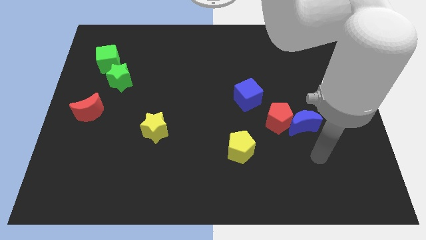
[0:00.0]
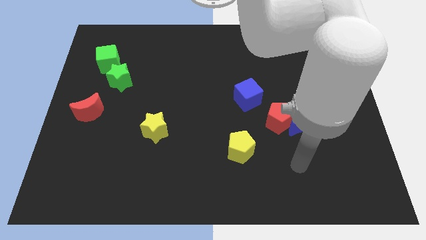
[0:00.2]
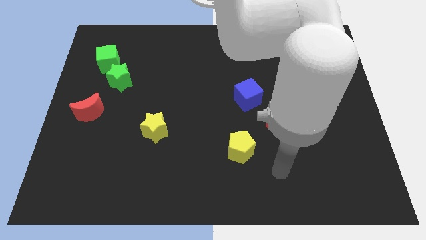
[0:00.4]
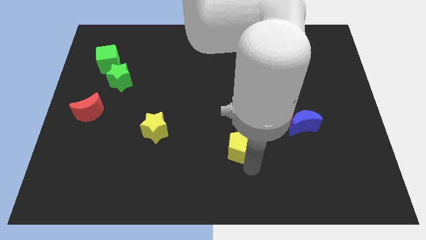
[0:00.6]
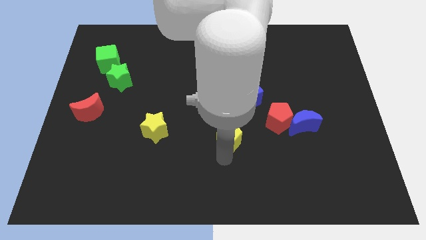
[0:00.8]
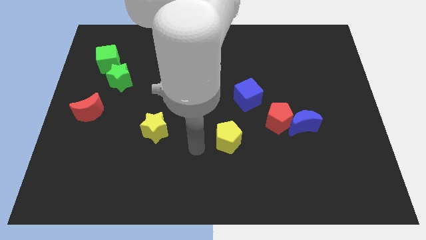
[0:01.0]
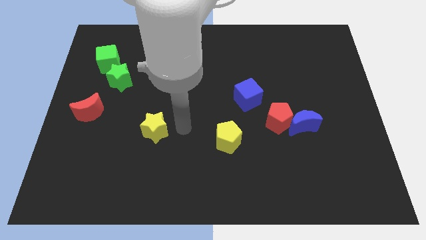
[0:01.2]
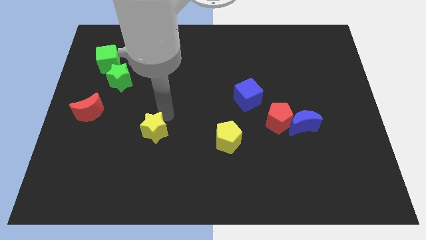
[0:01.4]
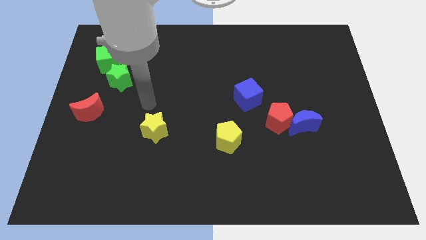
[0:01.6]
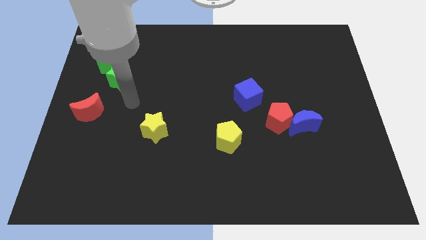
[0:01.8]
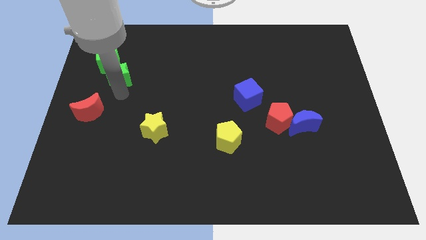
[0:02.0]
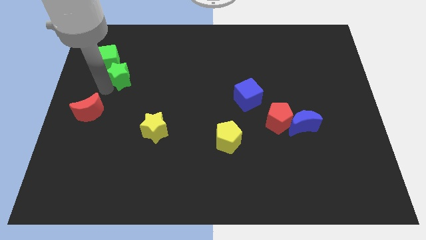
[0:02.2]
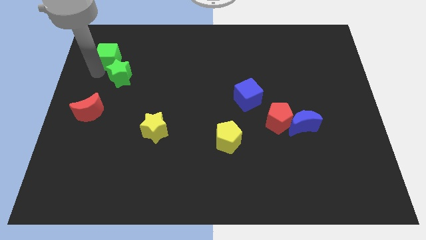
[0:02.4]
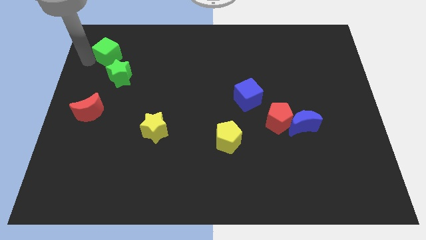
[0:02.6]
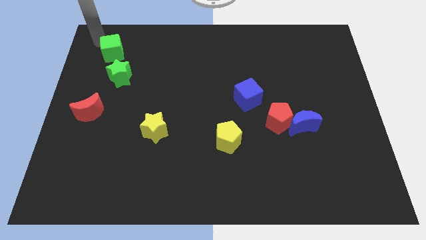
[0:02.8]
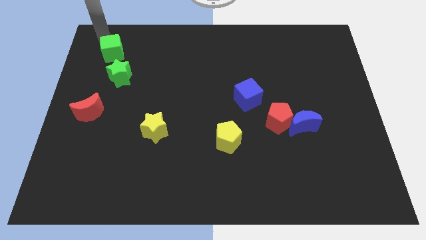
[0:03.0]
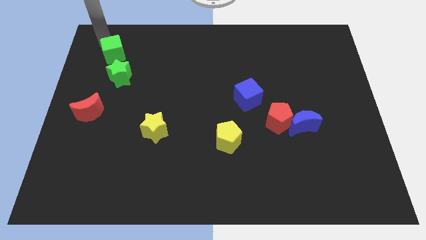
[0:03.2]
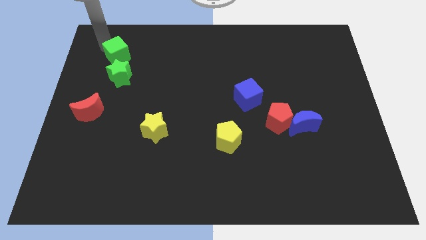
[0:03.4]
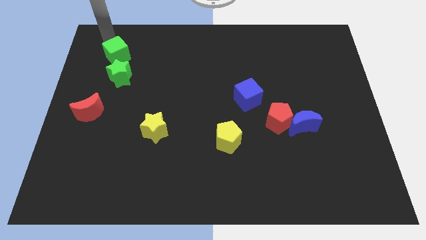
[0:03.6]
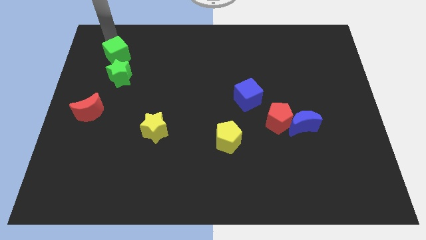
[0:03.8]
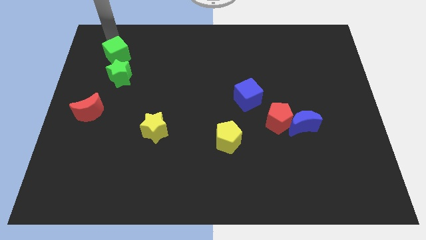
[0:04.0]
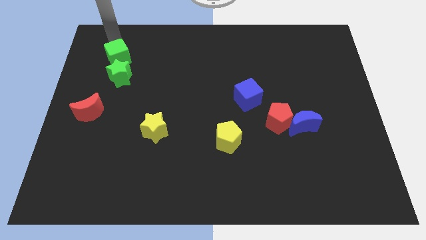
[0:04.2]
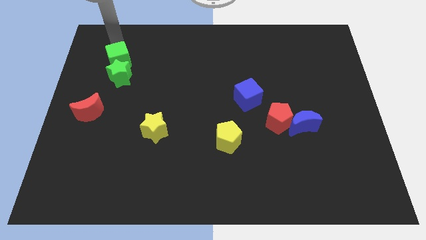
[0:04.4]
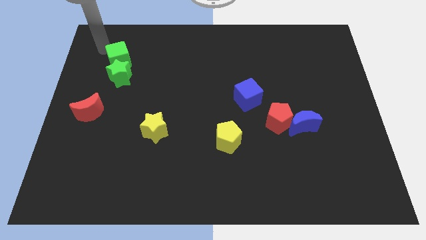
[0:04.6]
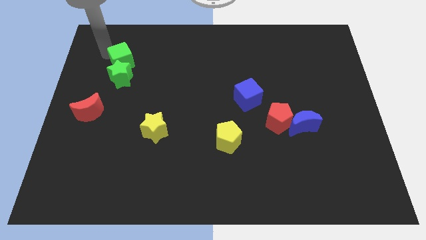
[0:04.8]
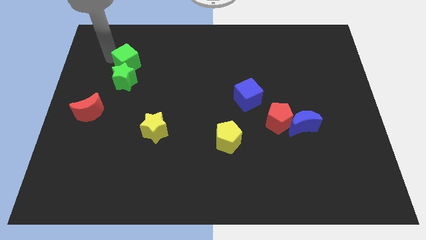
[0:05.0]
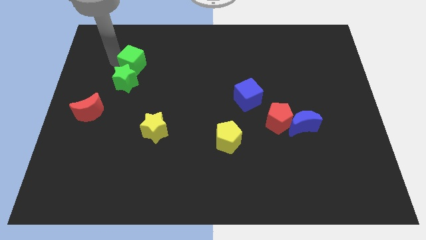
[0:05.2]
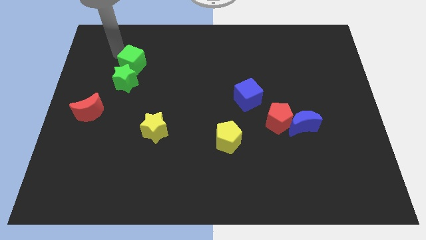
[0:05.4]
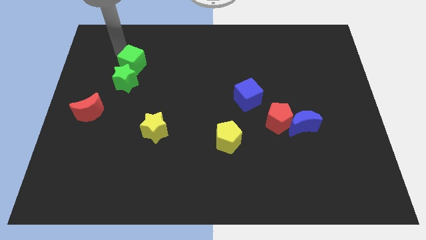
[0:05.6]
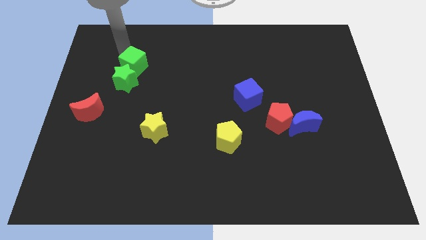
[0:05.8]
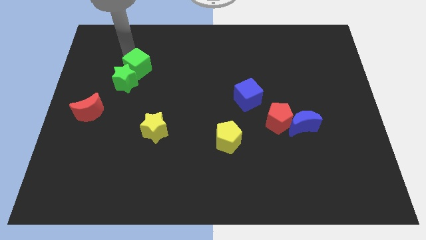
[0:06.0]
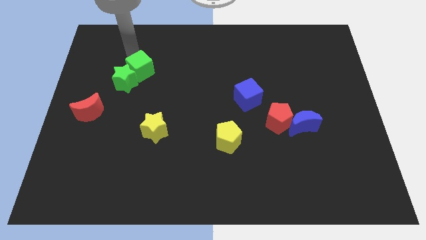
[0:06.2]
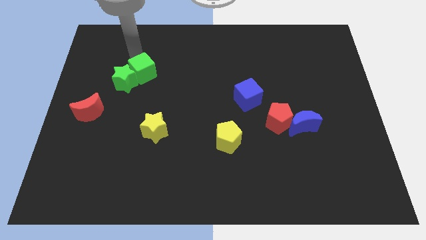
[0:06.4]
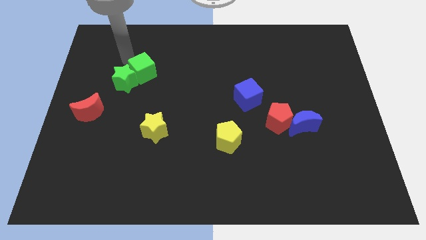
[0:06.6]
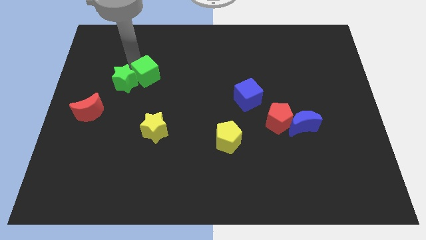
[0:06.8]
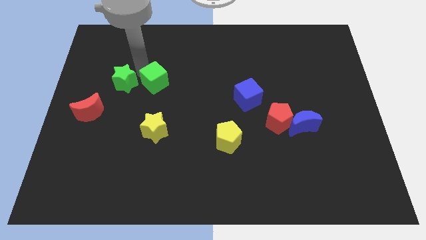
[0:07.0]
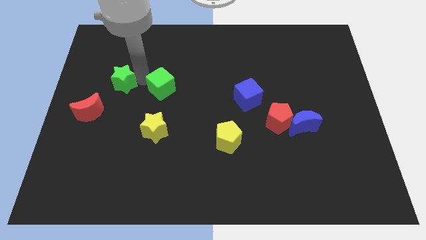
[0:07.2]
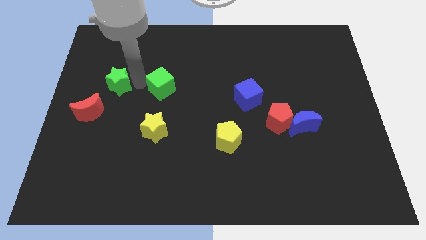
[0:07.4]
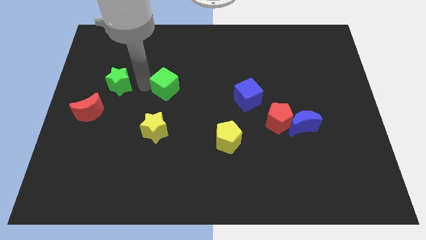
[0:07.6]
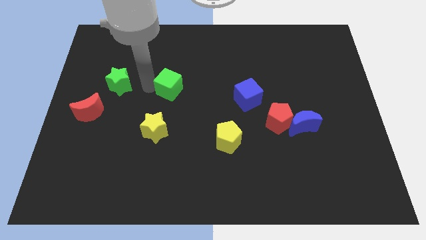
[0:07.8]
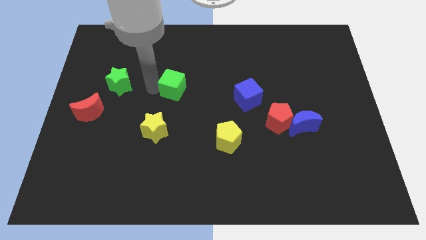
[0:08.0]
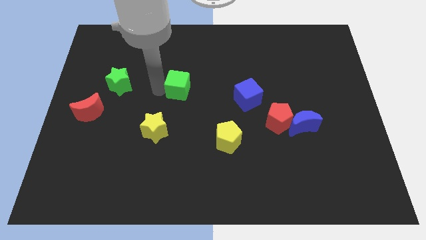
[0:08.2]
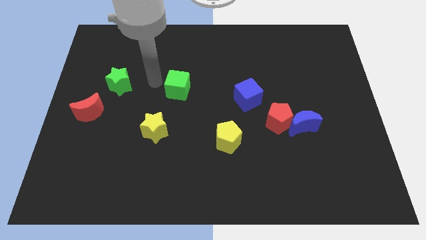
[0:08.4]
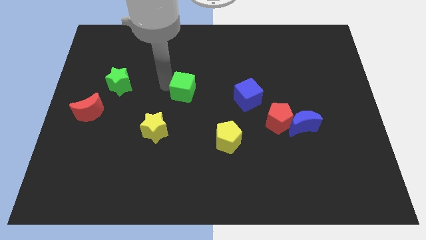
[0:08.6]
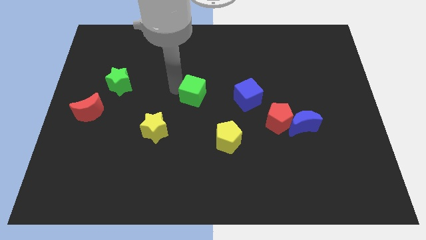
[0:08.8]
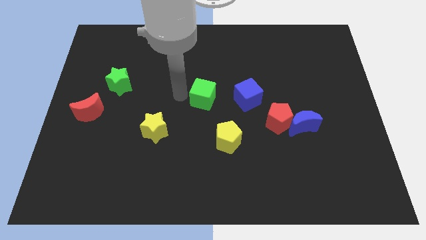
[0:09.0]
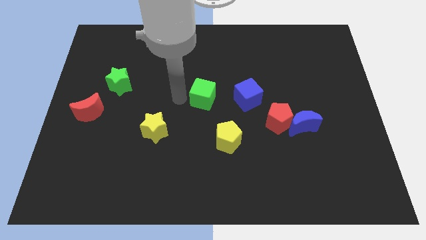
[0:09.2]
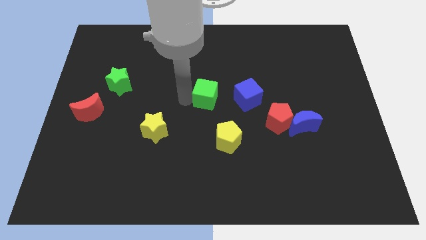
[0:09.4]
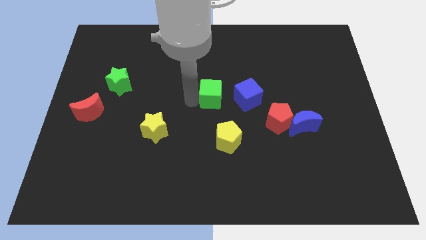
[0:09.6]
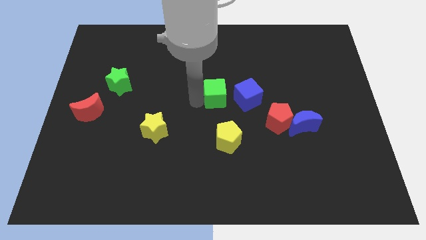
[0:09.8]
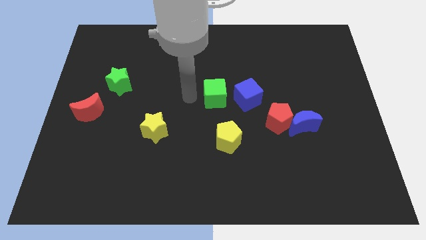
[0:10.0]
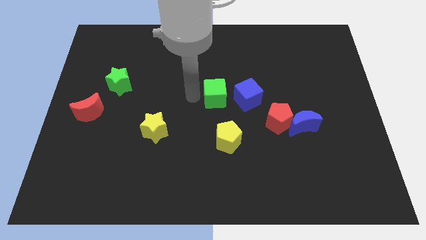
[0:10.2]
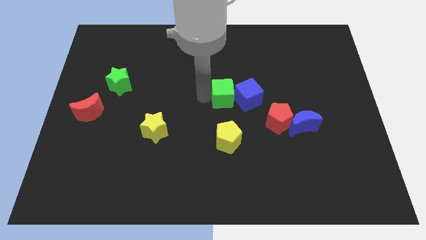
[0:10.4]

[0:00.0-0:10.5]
push the green cube towards the blue cube

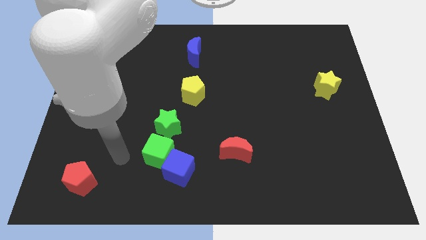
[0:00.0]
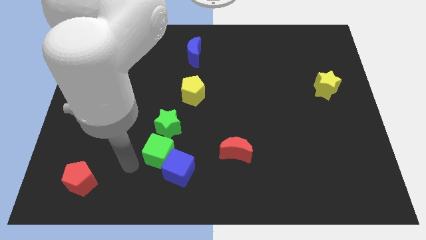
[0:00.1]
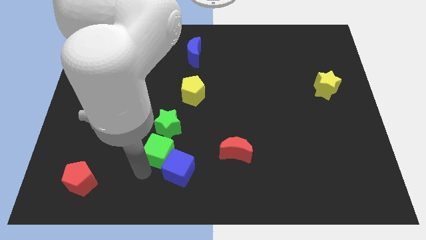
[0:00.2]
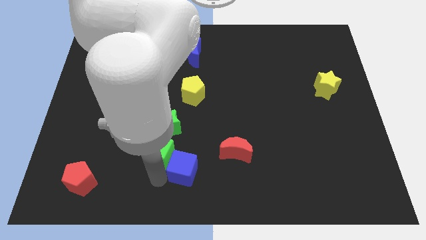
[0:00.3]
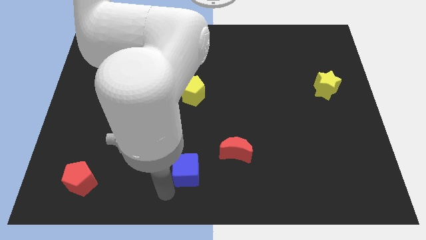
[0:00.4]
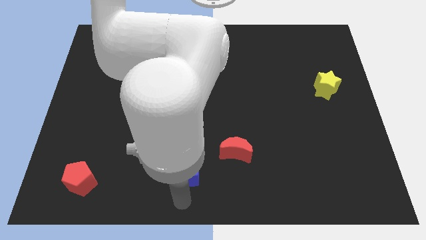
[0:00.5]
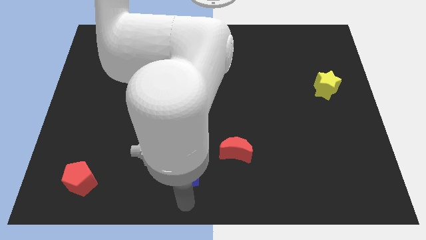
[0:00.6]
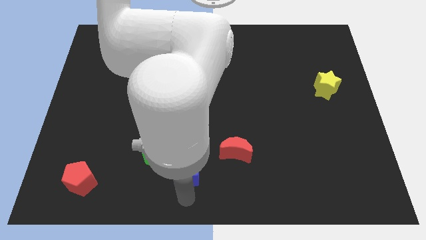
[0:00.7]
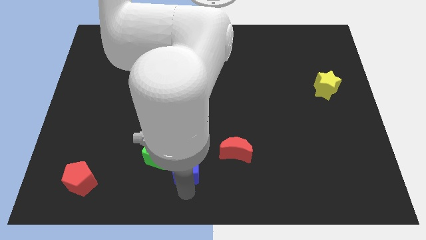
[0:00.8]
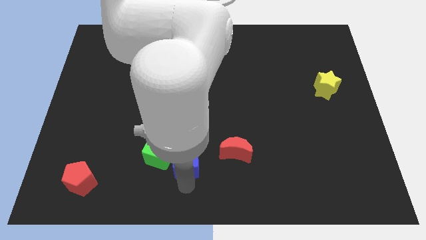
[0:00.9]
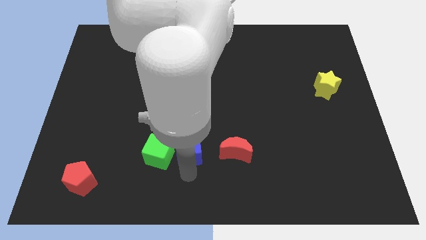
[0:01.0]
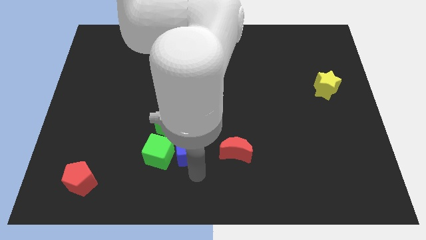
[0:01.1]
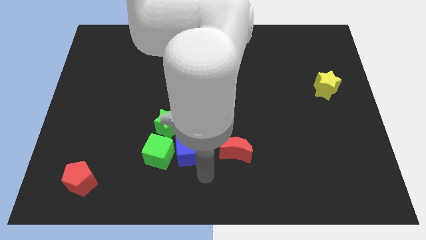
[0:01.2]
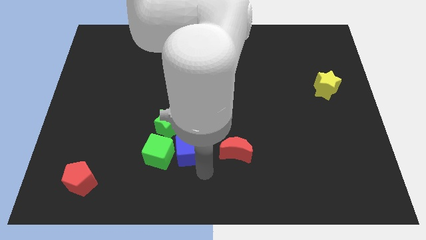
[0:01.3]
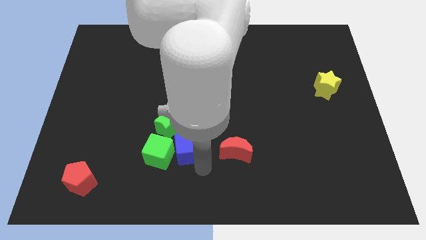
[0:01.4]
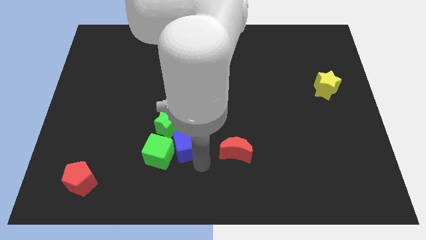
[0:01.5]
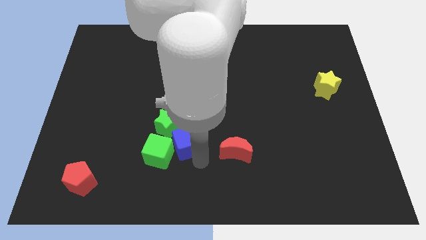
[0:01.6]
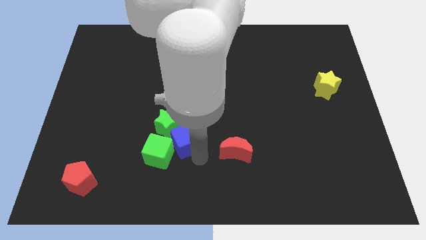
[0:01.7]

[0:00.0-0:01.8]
move the blue cube towards the green star

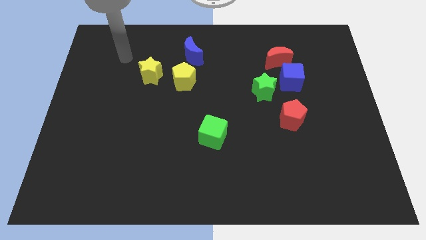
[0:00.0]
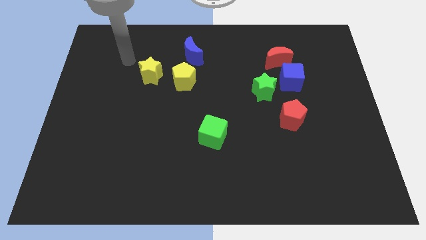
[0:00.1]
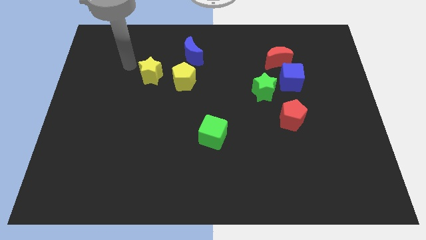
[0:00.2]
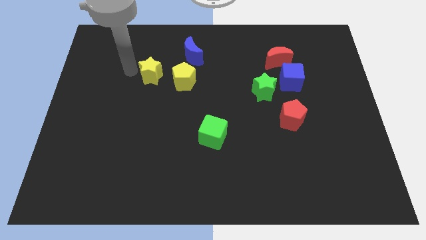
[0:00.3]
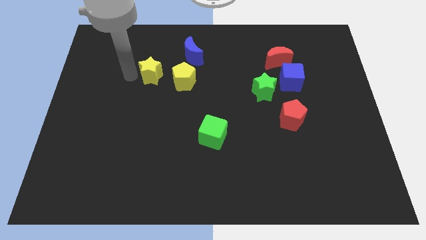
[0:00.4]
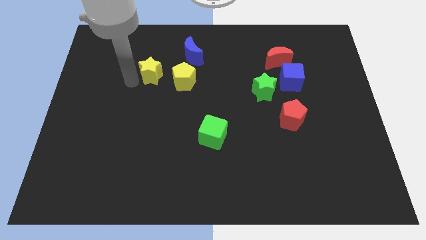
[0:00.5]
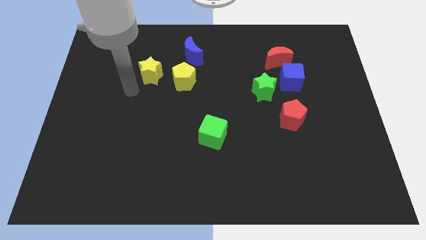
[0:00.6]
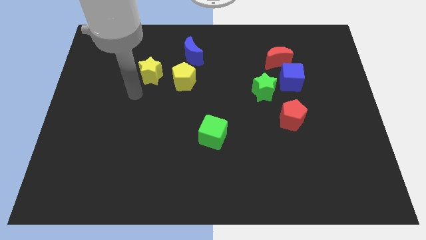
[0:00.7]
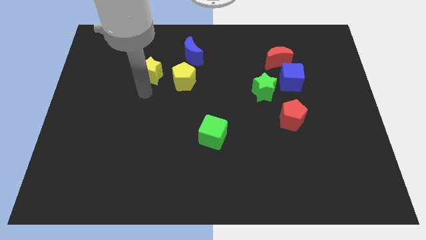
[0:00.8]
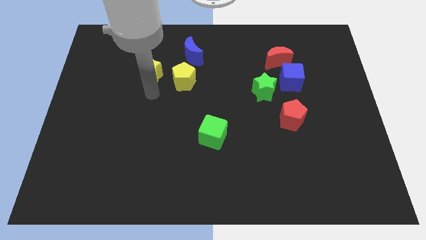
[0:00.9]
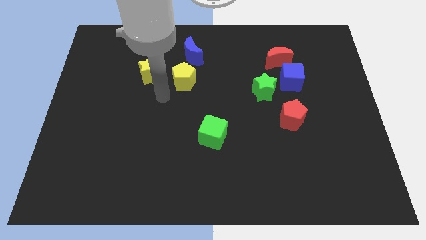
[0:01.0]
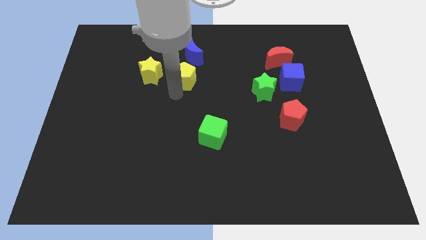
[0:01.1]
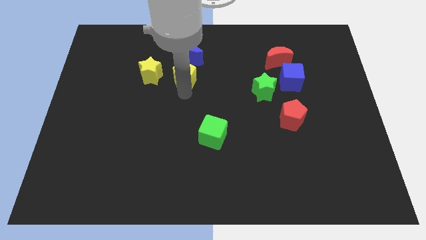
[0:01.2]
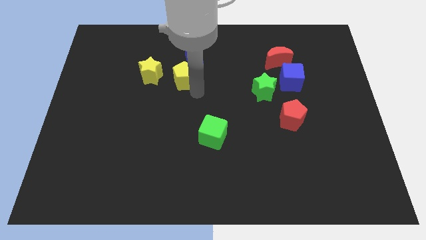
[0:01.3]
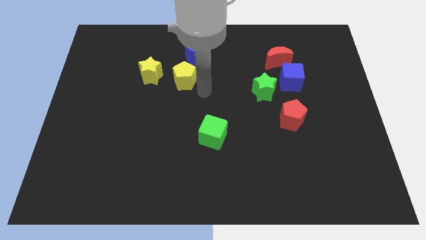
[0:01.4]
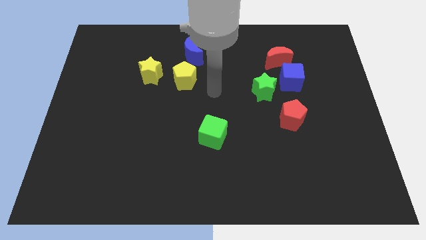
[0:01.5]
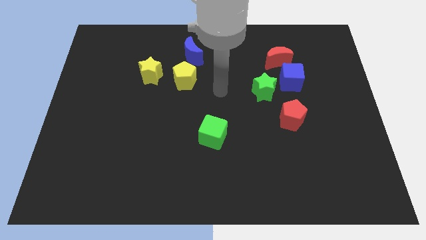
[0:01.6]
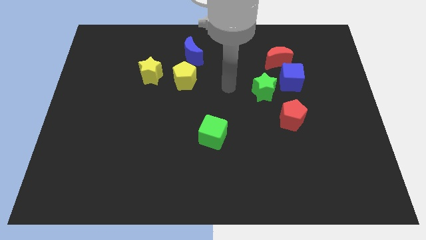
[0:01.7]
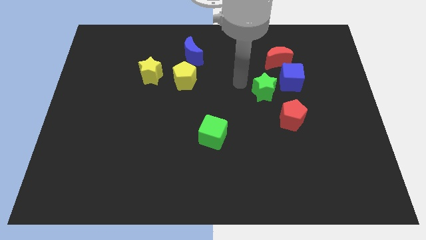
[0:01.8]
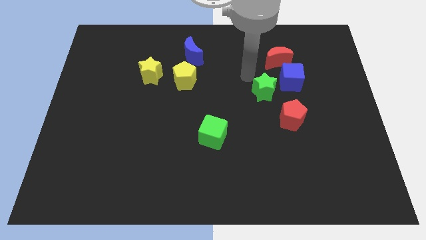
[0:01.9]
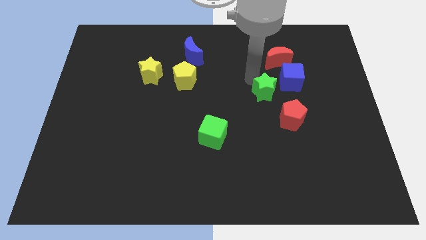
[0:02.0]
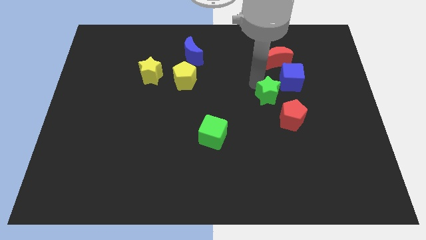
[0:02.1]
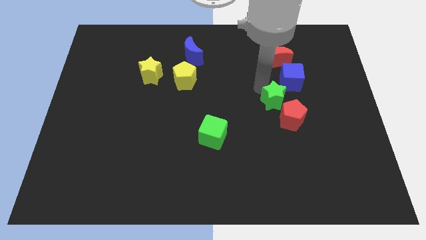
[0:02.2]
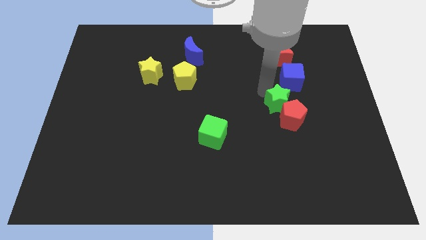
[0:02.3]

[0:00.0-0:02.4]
put the green star close to the red pentagon
